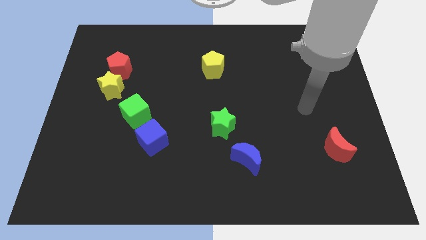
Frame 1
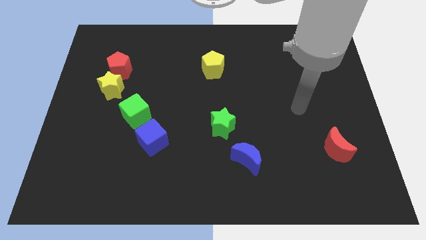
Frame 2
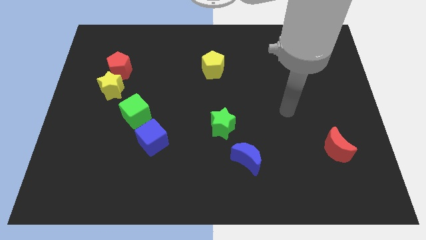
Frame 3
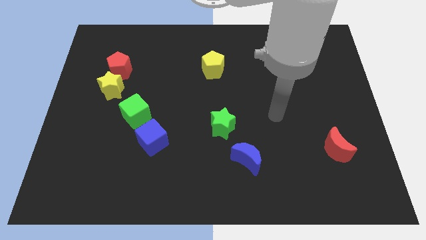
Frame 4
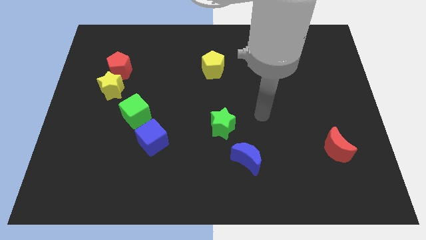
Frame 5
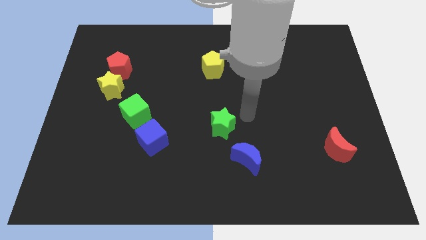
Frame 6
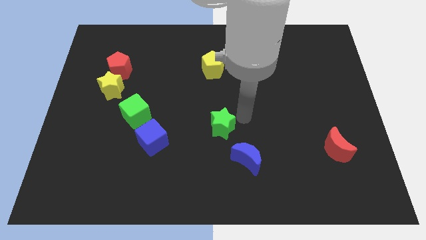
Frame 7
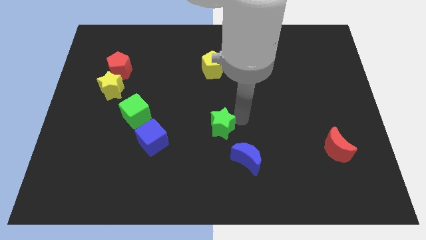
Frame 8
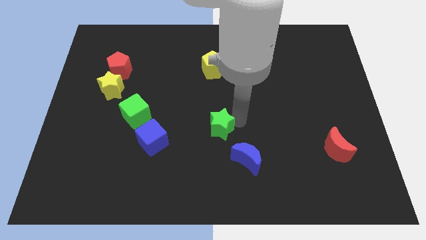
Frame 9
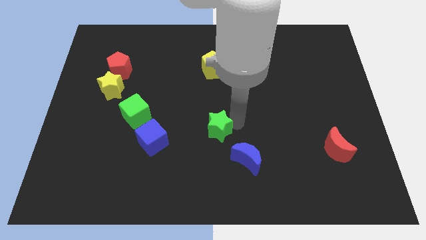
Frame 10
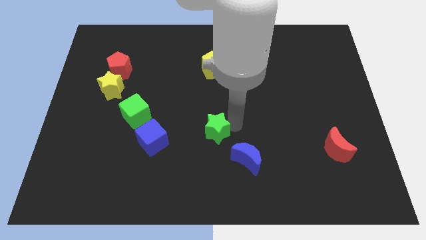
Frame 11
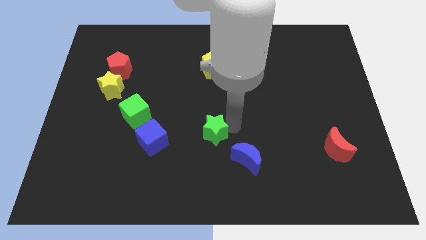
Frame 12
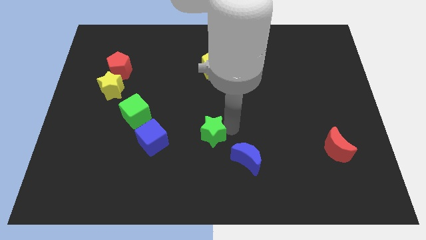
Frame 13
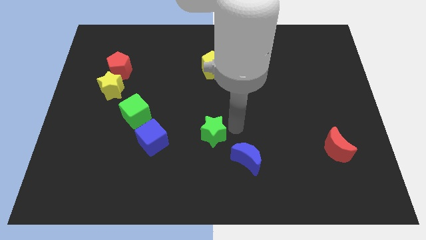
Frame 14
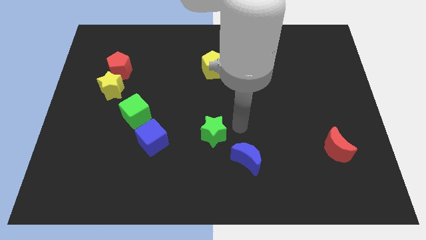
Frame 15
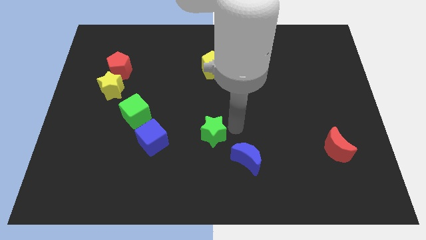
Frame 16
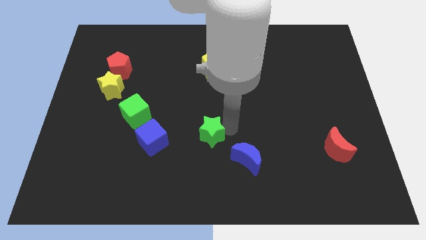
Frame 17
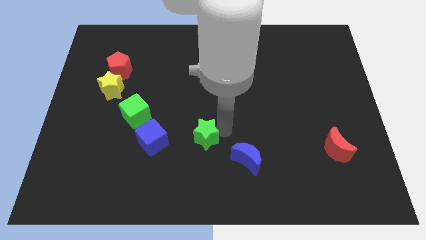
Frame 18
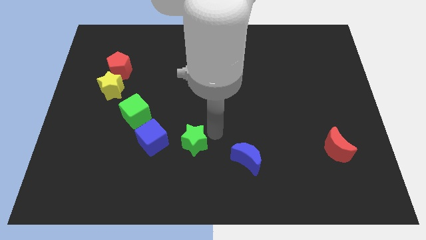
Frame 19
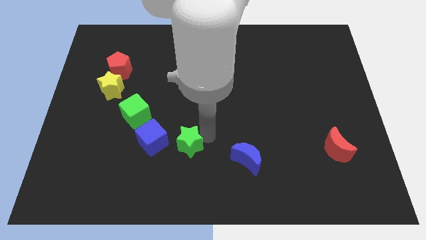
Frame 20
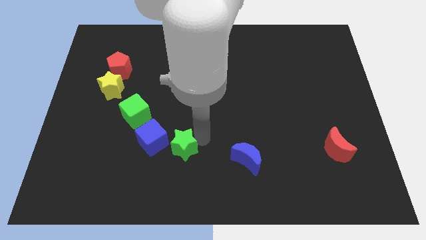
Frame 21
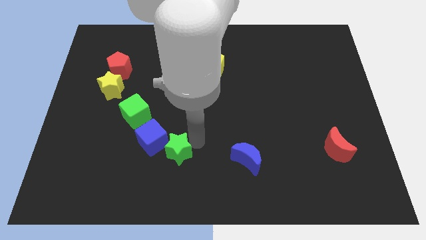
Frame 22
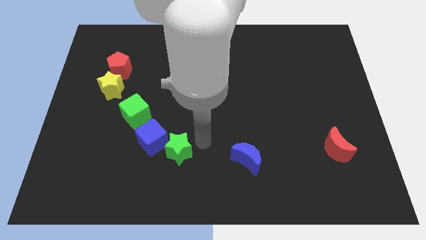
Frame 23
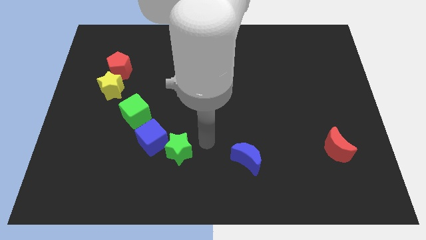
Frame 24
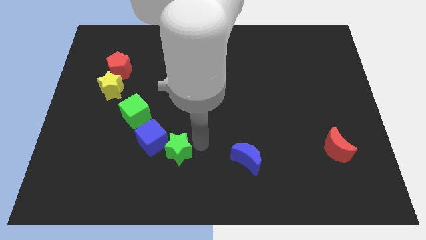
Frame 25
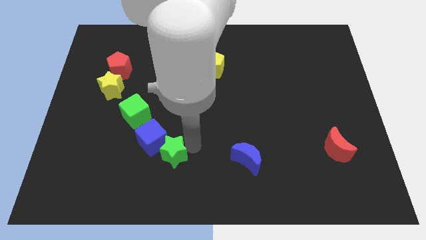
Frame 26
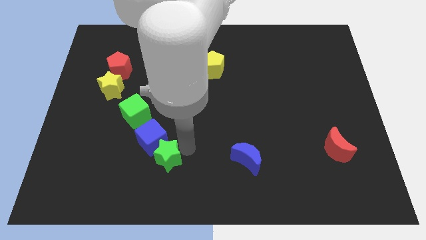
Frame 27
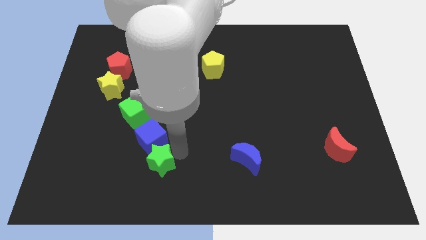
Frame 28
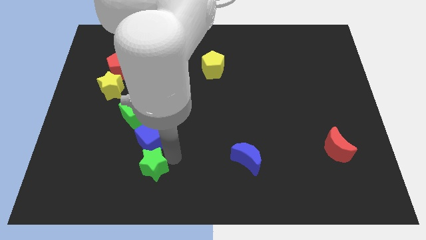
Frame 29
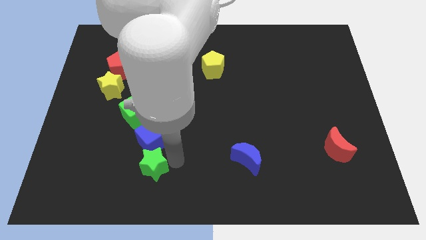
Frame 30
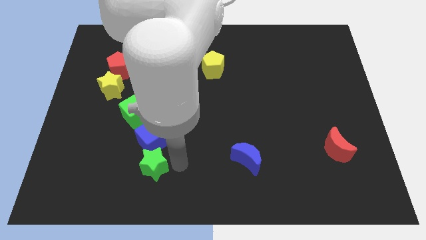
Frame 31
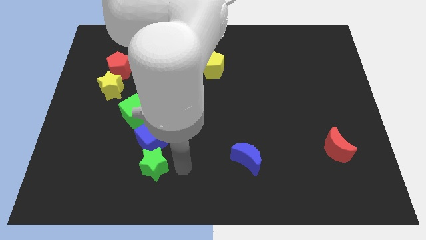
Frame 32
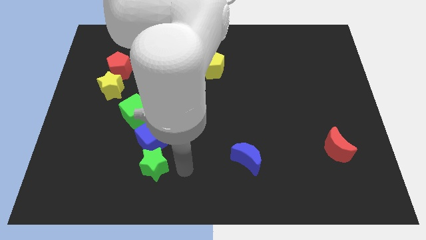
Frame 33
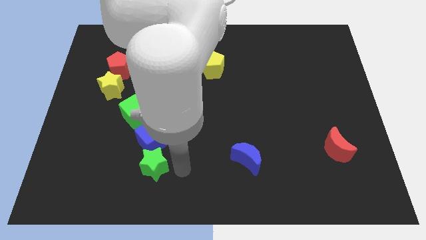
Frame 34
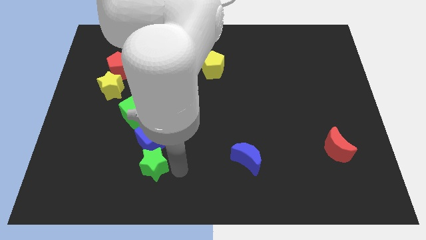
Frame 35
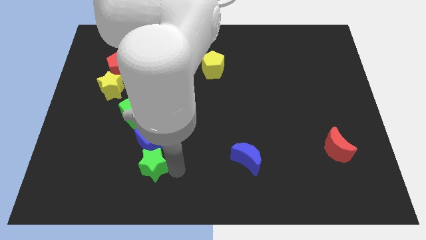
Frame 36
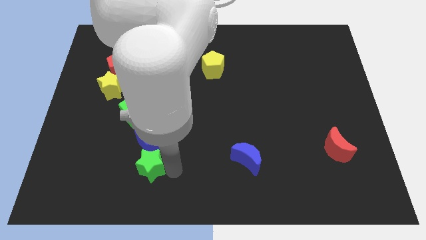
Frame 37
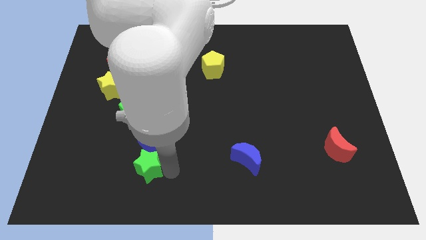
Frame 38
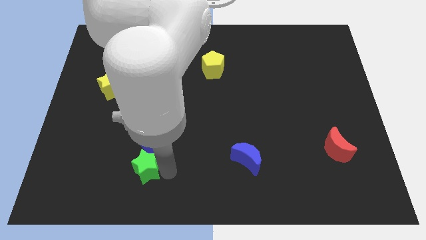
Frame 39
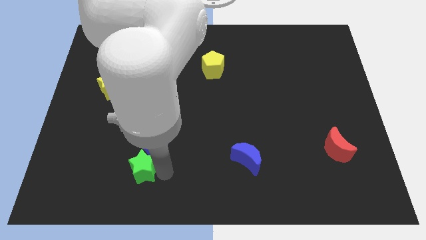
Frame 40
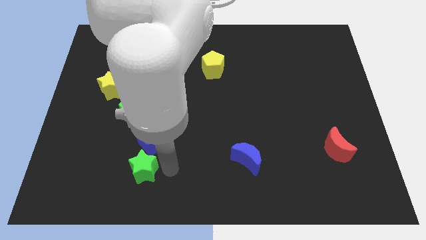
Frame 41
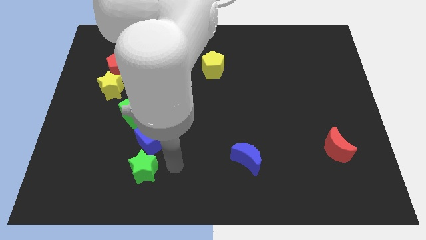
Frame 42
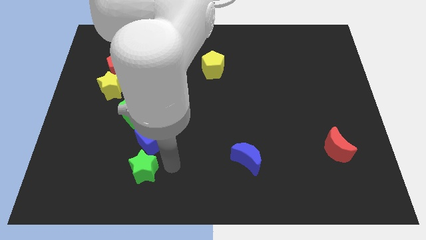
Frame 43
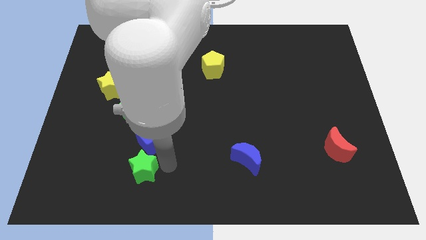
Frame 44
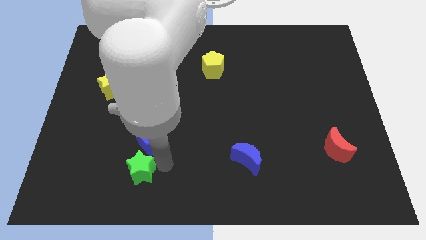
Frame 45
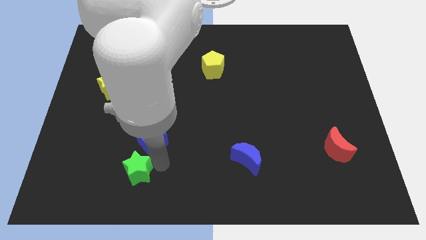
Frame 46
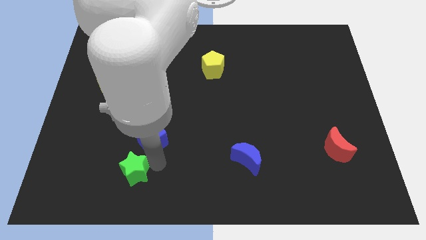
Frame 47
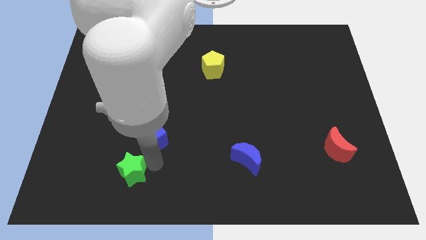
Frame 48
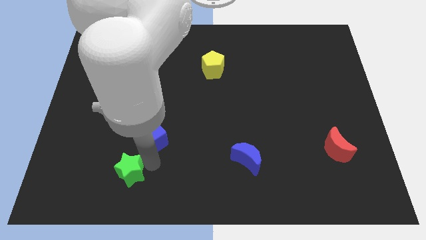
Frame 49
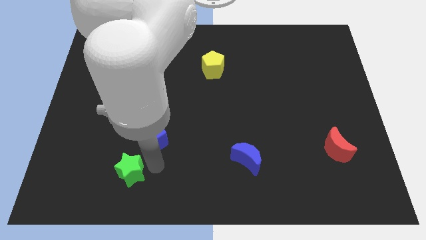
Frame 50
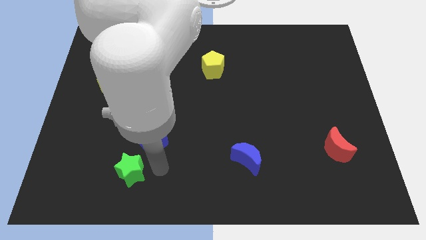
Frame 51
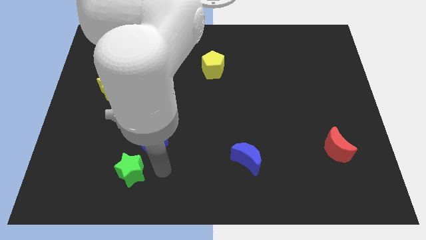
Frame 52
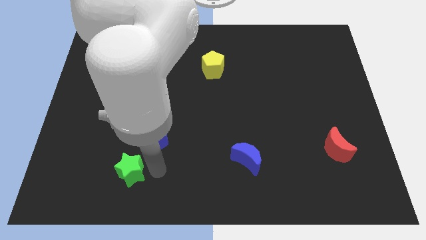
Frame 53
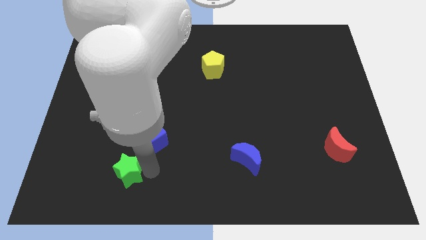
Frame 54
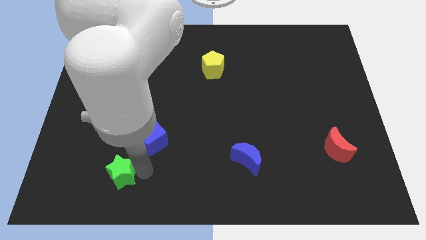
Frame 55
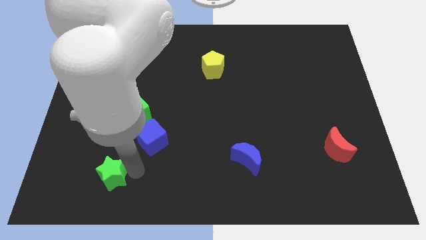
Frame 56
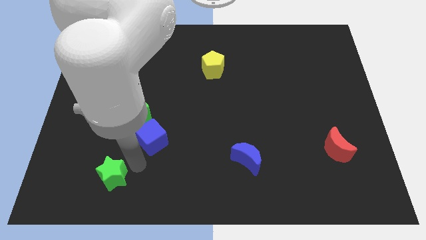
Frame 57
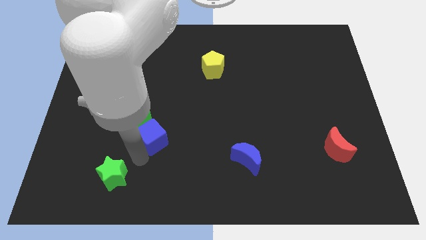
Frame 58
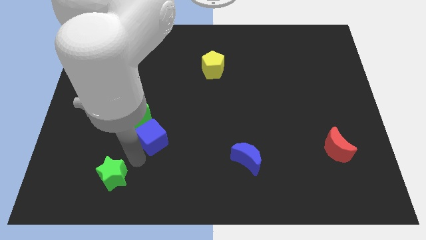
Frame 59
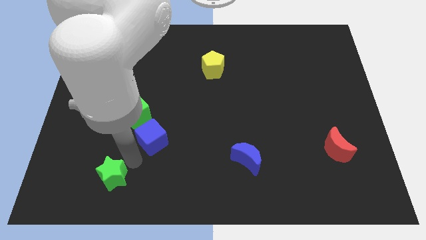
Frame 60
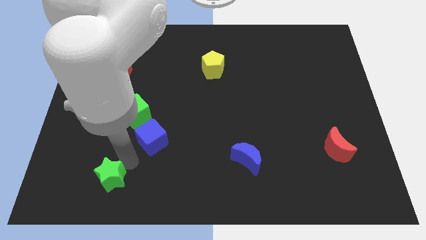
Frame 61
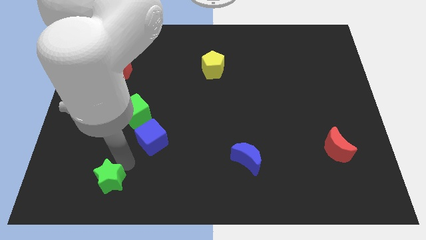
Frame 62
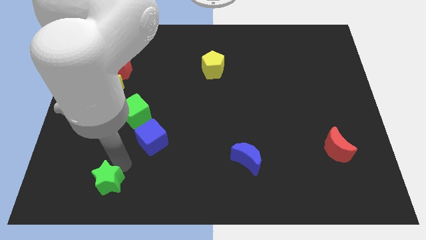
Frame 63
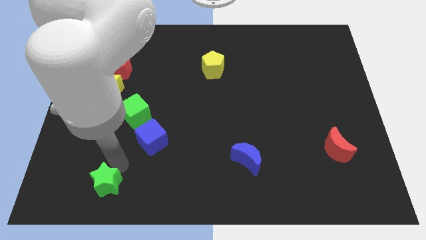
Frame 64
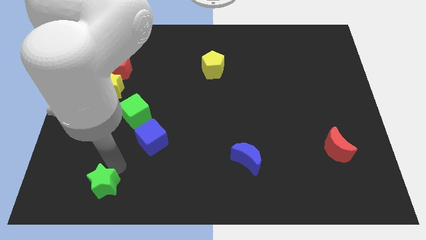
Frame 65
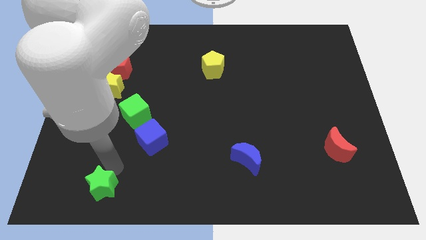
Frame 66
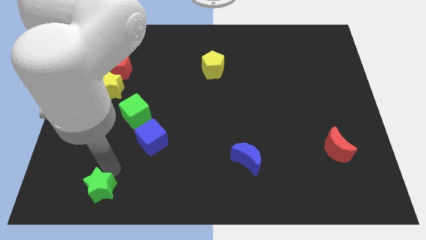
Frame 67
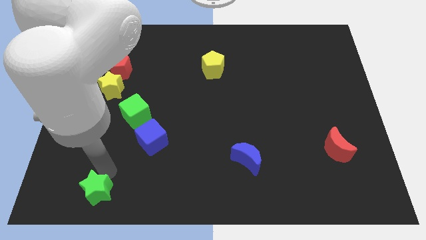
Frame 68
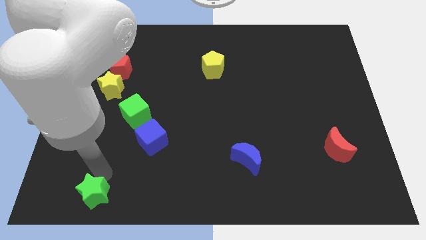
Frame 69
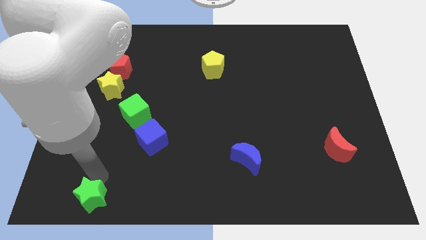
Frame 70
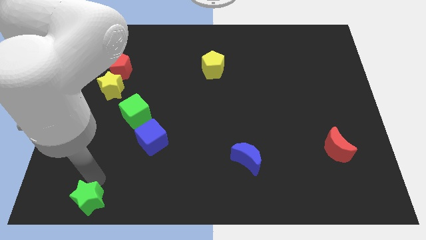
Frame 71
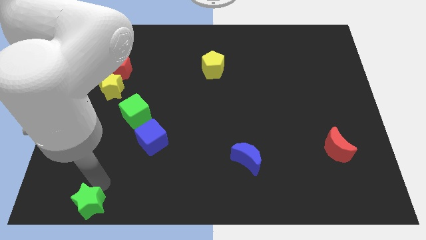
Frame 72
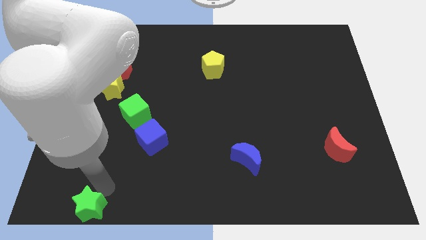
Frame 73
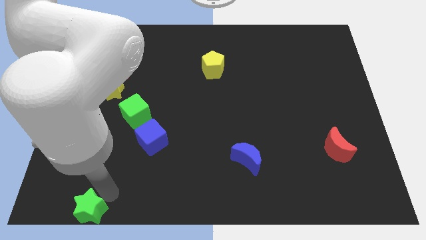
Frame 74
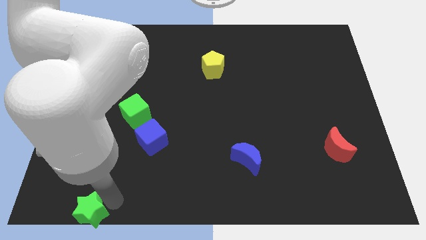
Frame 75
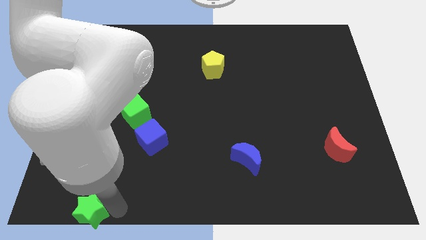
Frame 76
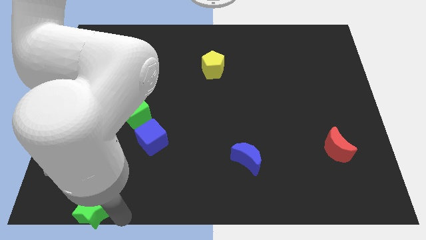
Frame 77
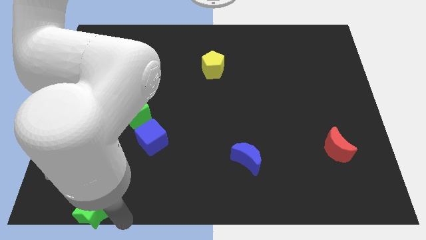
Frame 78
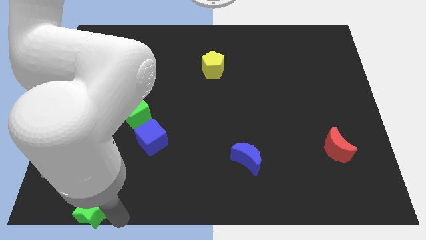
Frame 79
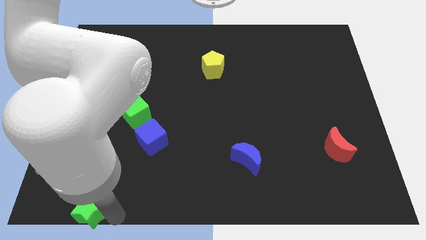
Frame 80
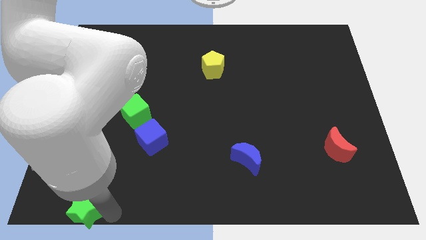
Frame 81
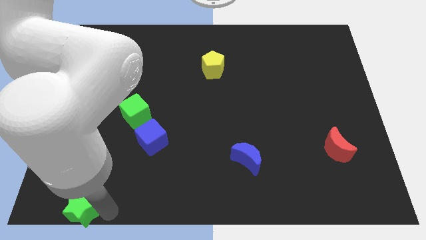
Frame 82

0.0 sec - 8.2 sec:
push the green star to the lower left corner
